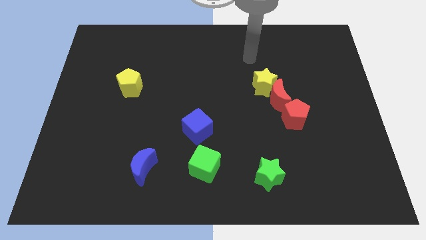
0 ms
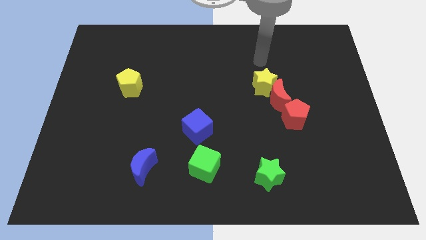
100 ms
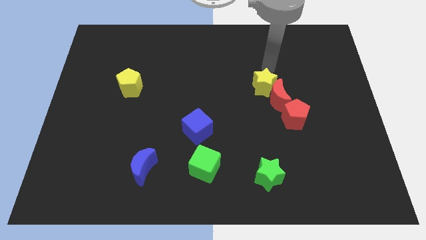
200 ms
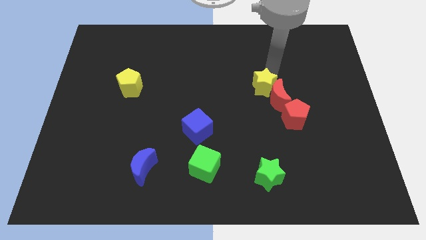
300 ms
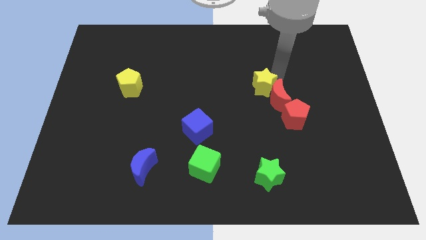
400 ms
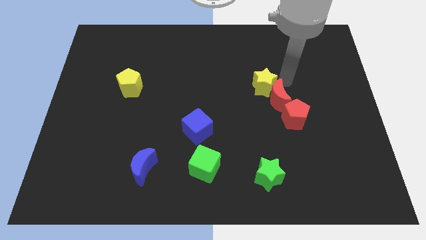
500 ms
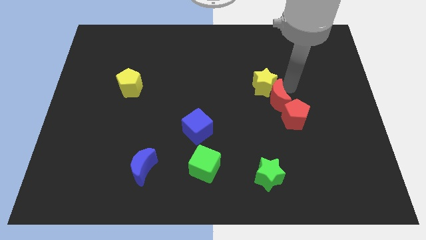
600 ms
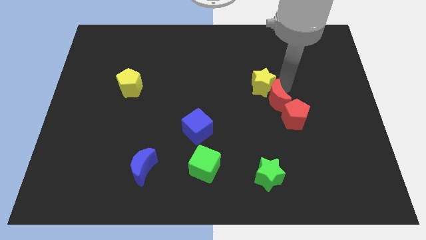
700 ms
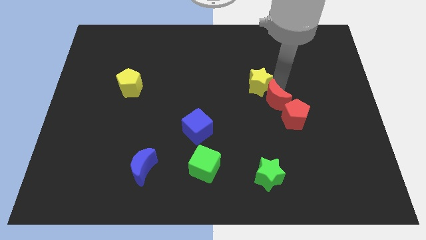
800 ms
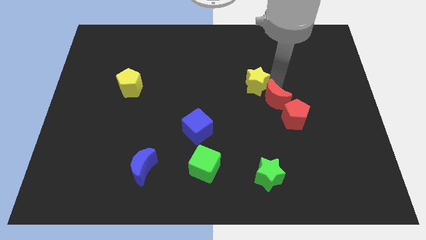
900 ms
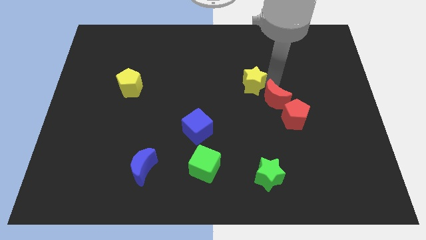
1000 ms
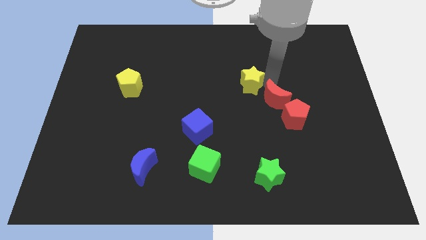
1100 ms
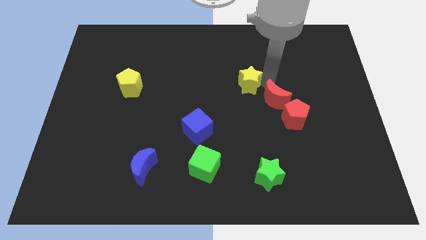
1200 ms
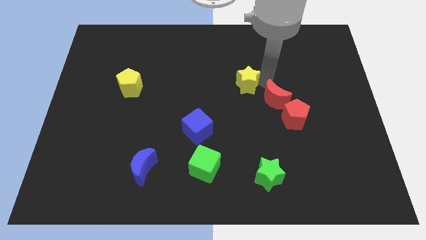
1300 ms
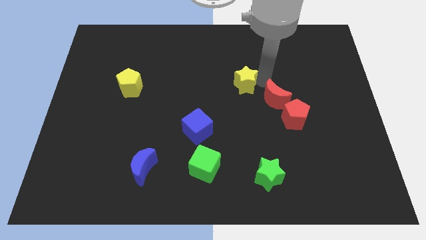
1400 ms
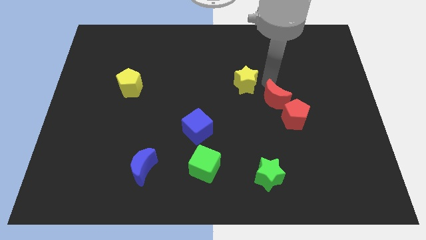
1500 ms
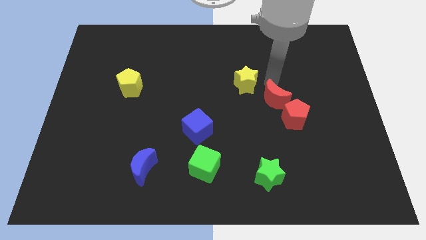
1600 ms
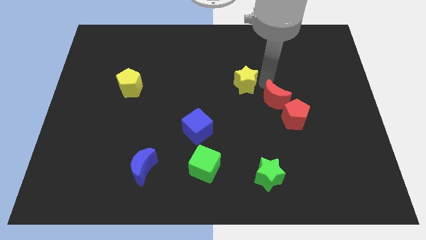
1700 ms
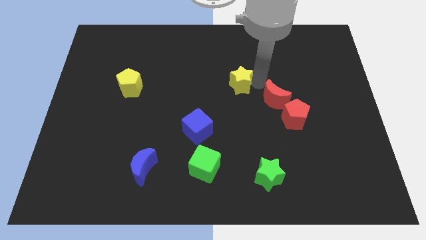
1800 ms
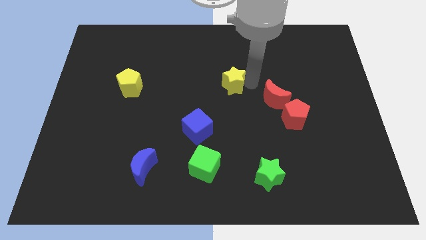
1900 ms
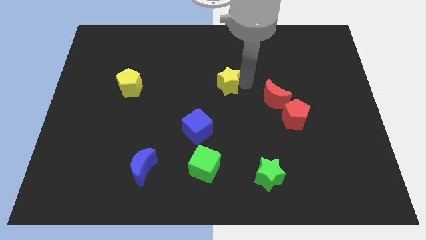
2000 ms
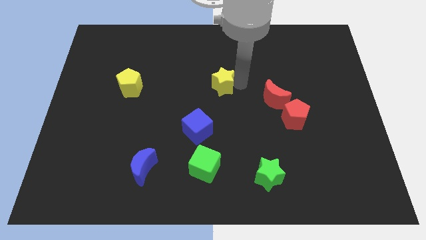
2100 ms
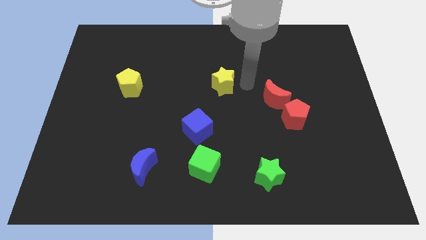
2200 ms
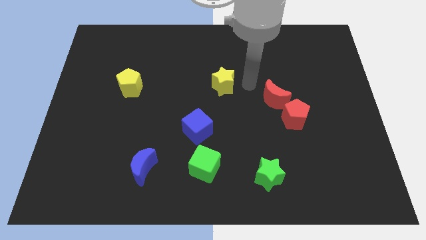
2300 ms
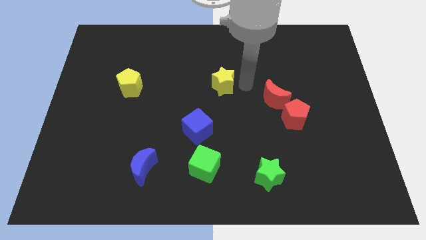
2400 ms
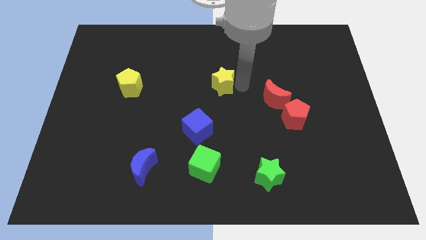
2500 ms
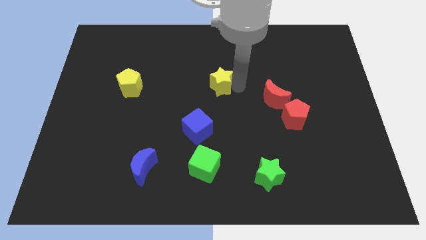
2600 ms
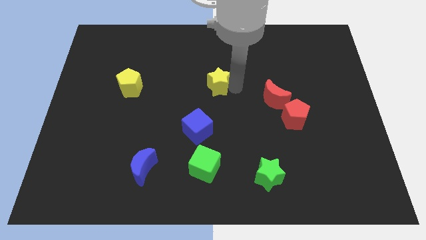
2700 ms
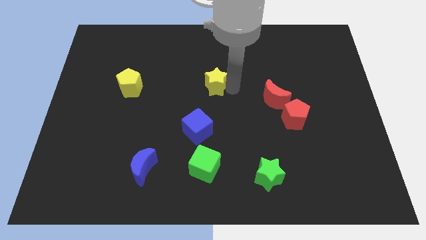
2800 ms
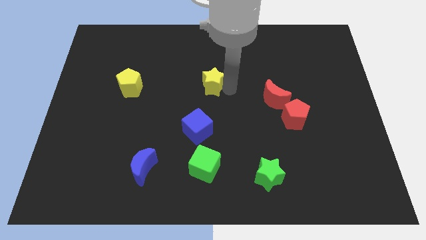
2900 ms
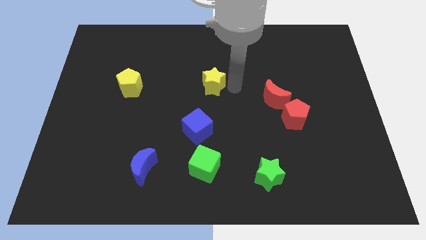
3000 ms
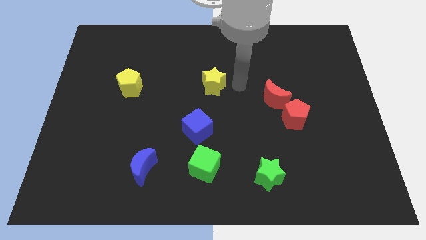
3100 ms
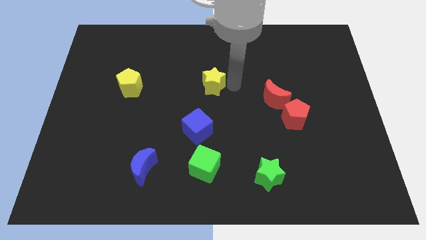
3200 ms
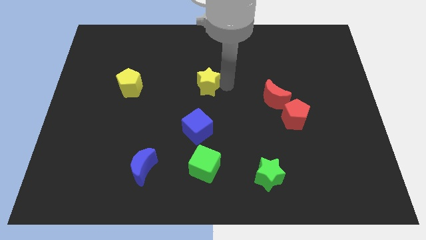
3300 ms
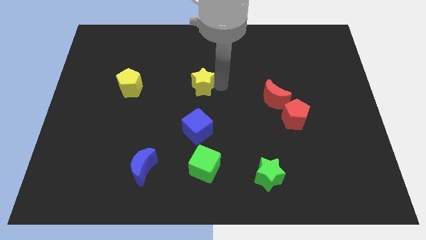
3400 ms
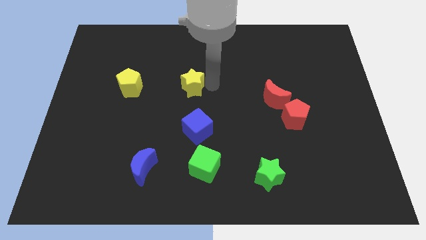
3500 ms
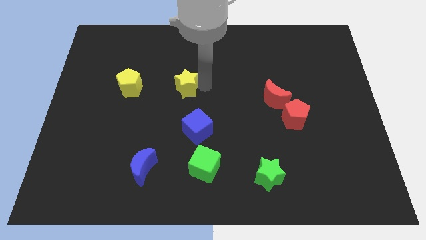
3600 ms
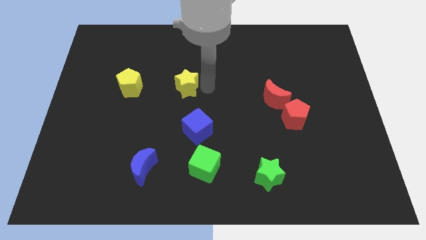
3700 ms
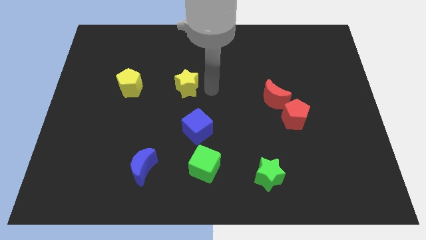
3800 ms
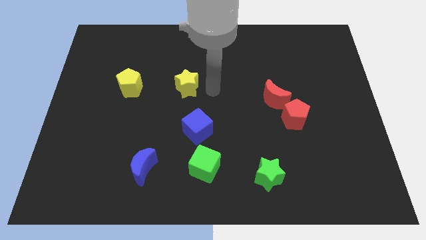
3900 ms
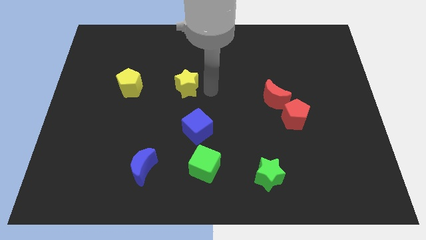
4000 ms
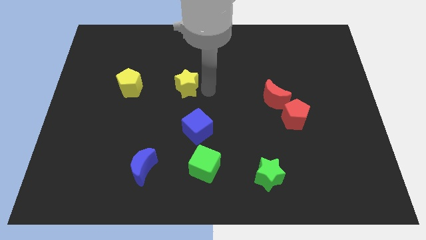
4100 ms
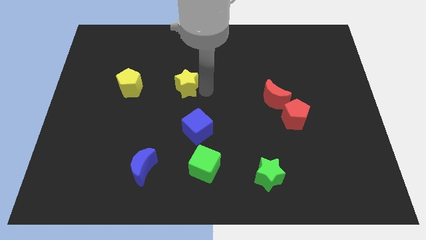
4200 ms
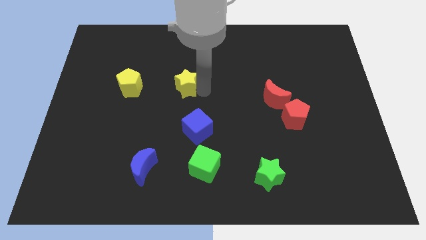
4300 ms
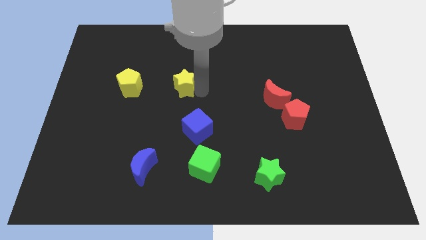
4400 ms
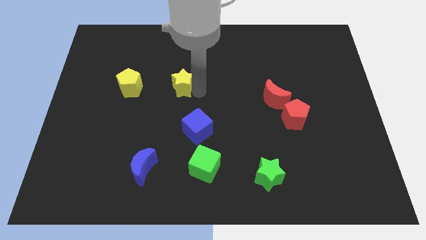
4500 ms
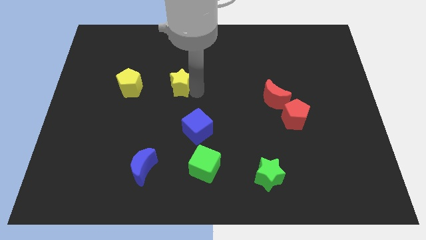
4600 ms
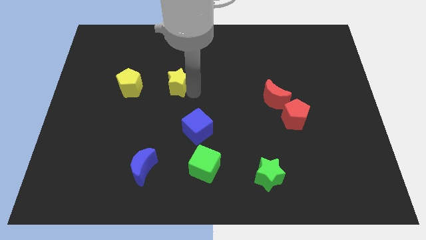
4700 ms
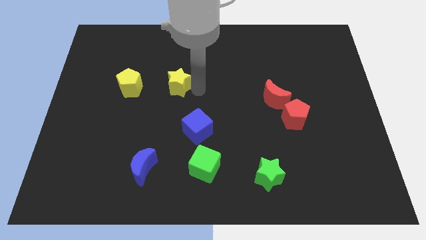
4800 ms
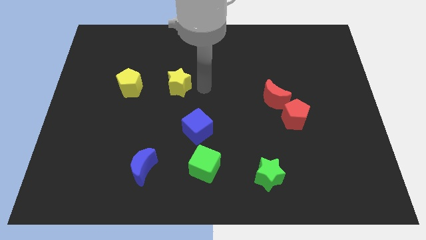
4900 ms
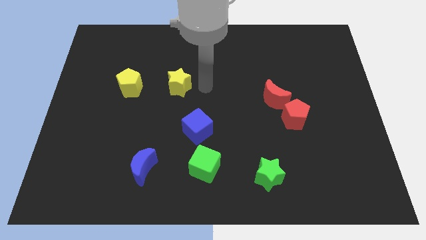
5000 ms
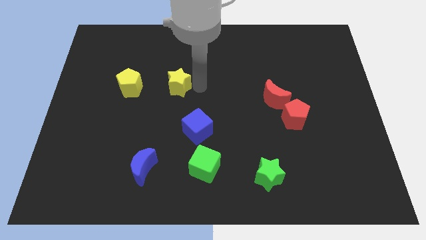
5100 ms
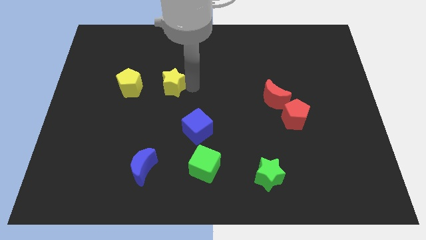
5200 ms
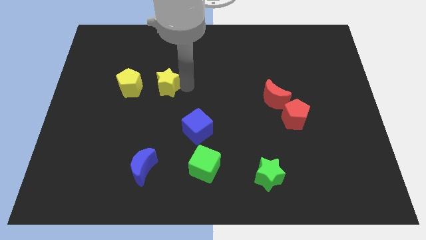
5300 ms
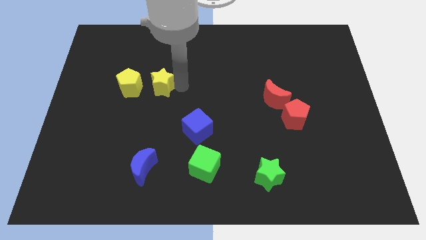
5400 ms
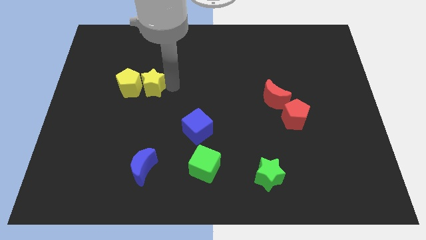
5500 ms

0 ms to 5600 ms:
slide the yellow star next to the yellow pentagon

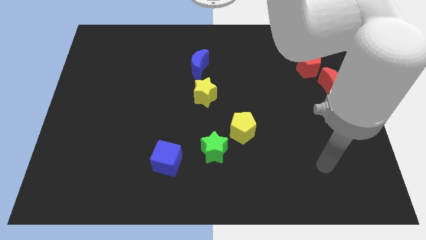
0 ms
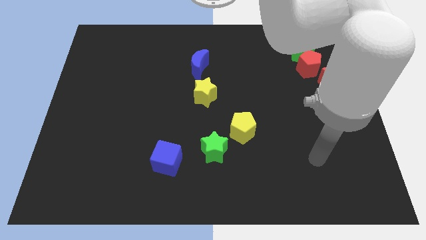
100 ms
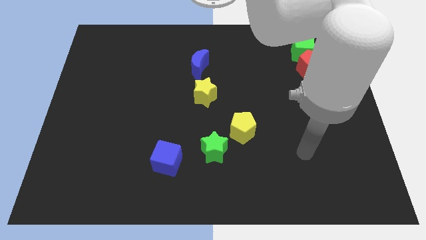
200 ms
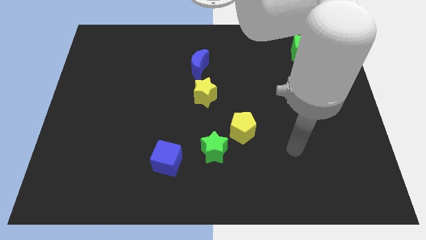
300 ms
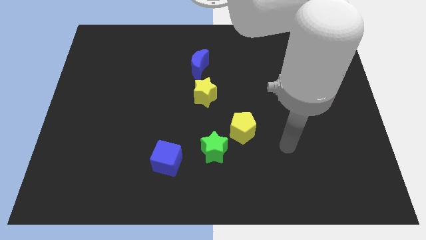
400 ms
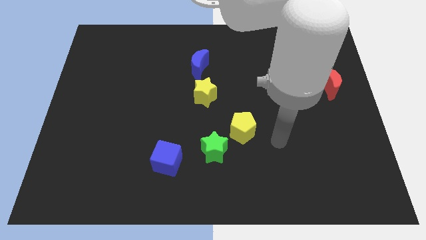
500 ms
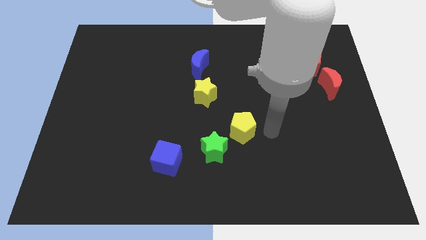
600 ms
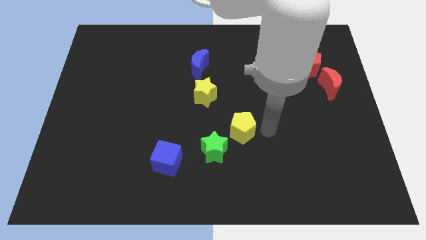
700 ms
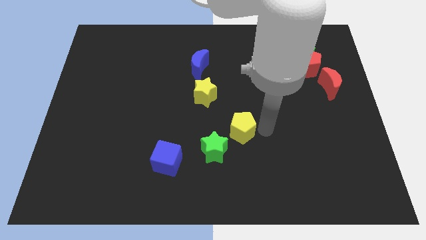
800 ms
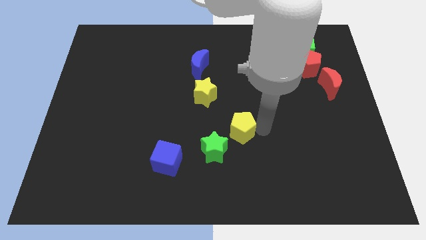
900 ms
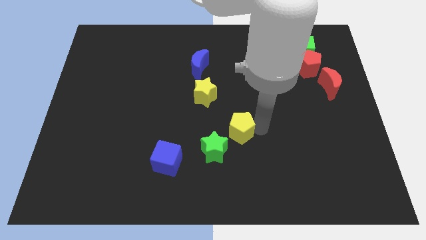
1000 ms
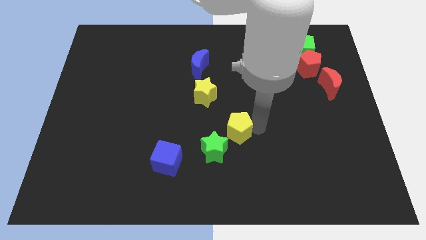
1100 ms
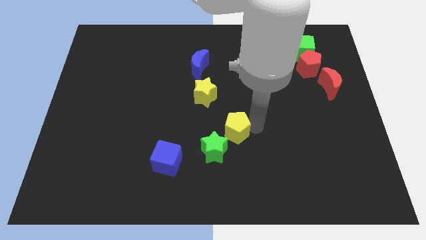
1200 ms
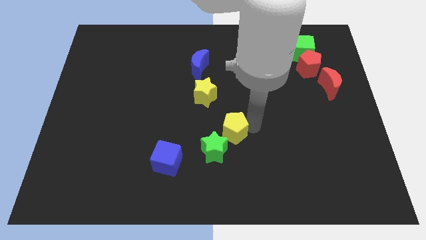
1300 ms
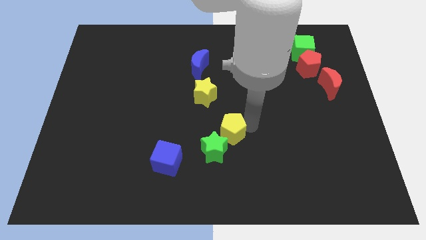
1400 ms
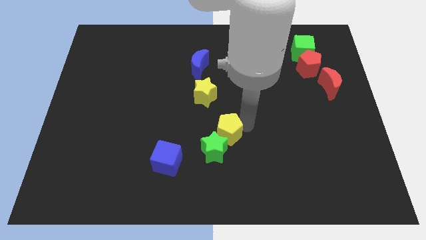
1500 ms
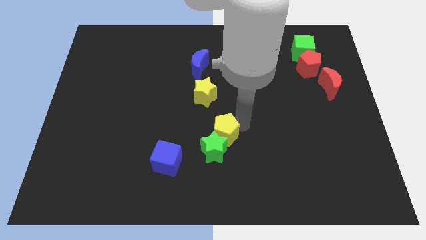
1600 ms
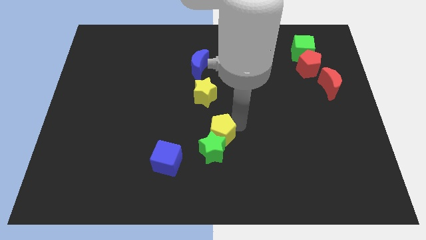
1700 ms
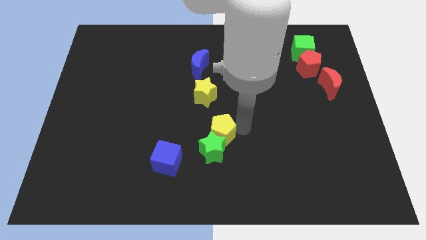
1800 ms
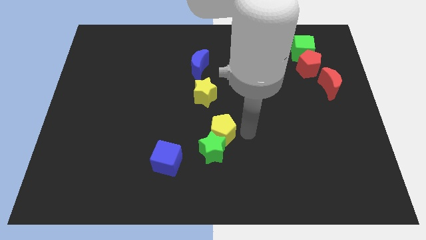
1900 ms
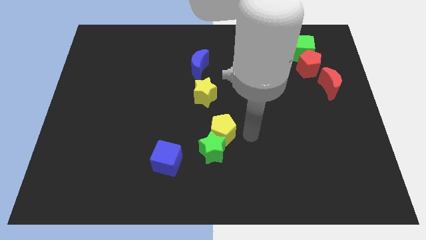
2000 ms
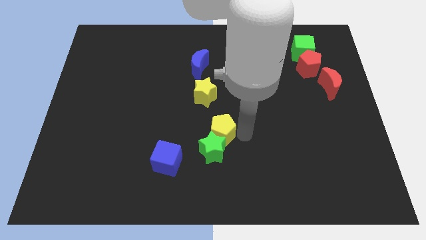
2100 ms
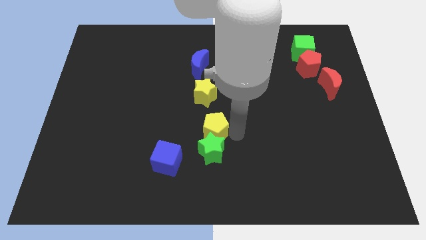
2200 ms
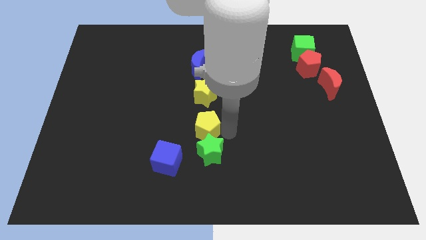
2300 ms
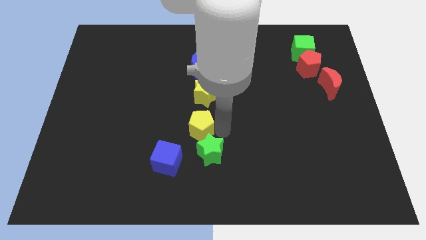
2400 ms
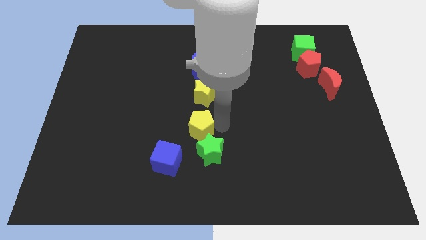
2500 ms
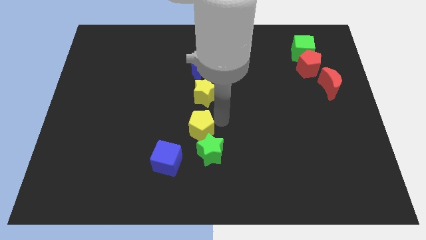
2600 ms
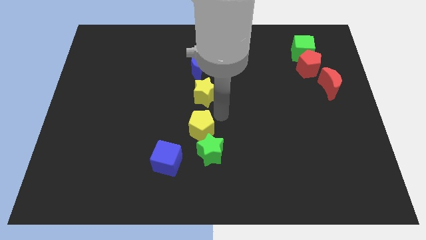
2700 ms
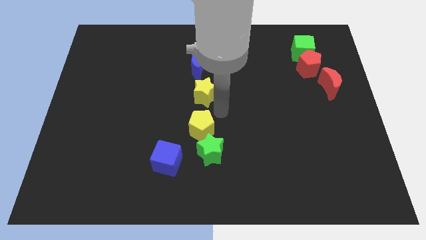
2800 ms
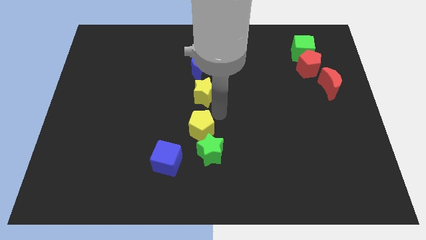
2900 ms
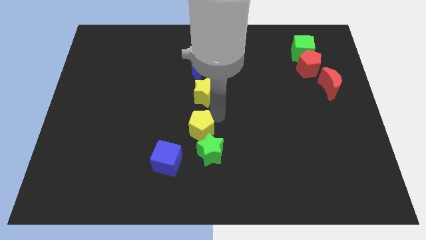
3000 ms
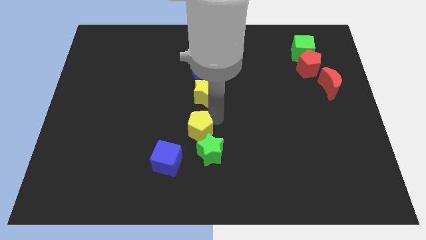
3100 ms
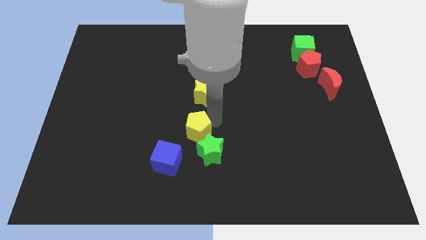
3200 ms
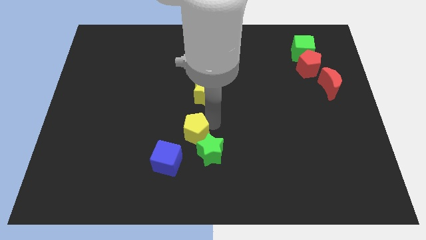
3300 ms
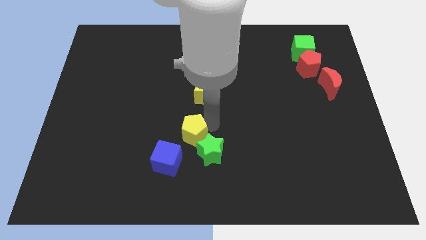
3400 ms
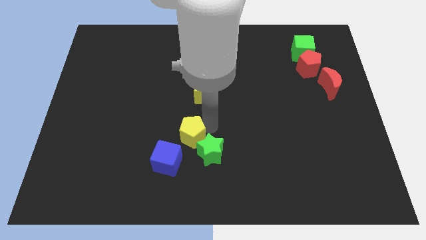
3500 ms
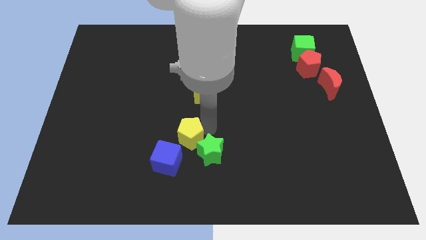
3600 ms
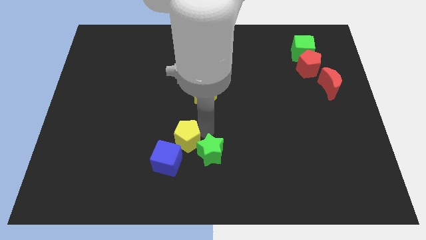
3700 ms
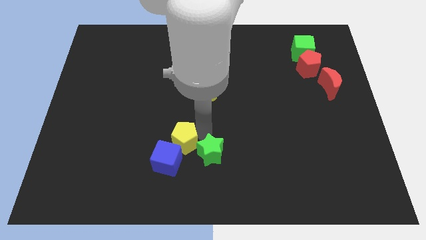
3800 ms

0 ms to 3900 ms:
put the yellow pentagon close to the blue cube
